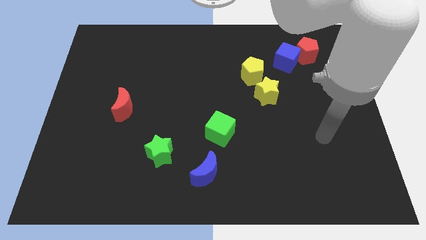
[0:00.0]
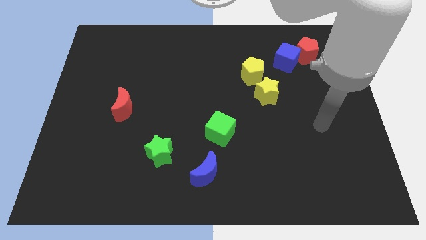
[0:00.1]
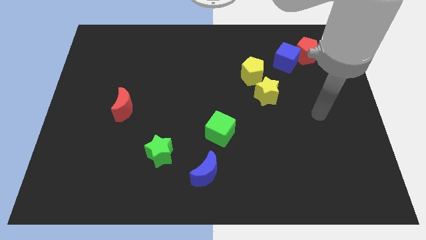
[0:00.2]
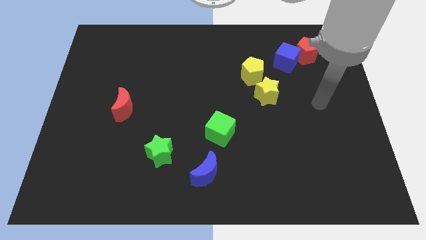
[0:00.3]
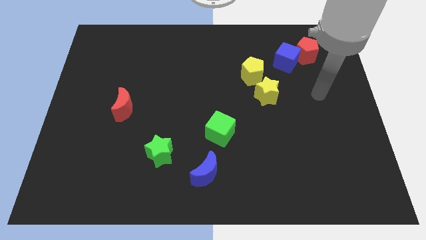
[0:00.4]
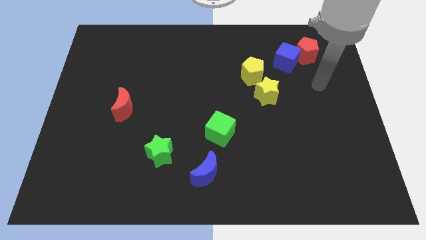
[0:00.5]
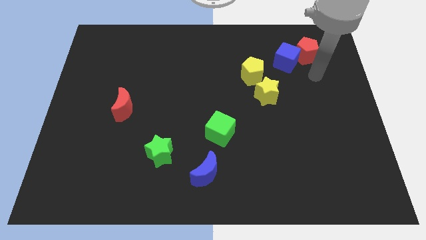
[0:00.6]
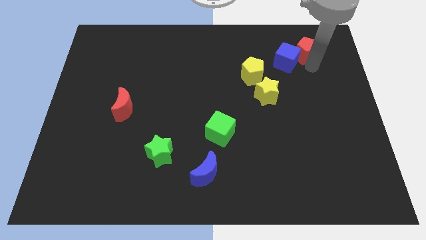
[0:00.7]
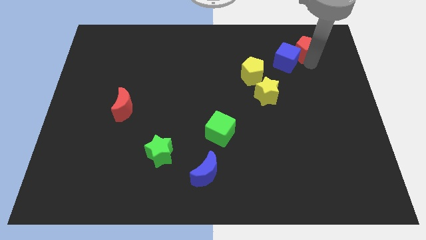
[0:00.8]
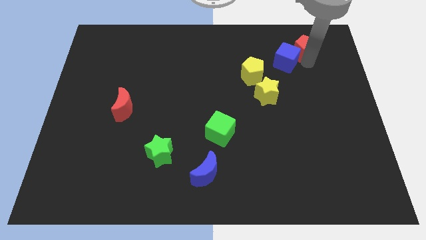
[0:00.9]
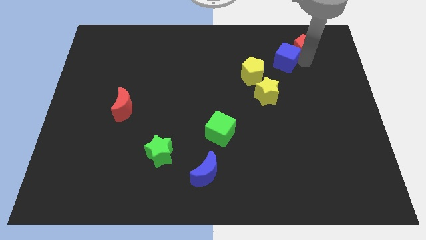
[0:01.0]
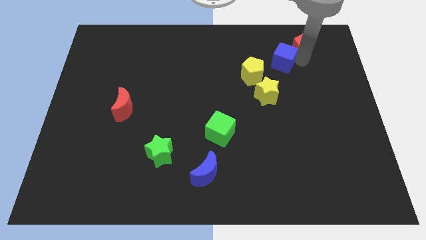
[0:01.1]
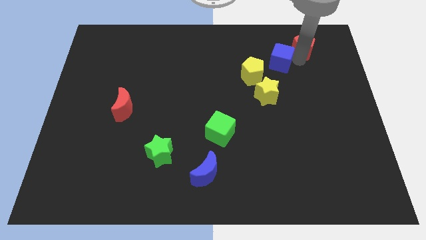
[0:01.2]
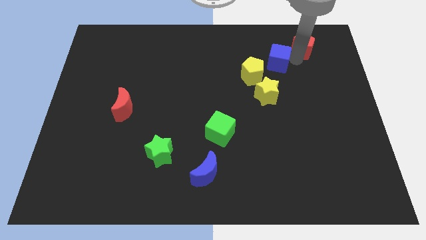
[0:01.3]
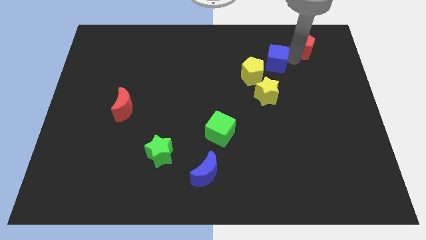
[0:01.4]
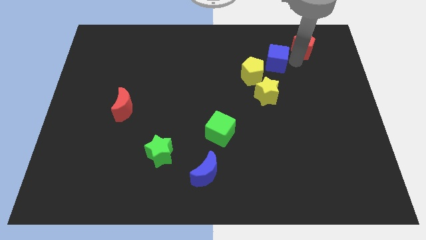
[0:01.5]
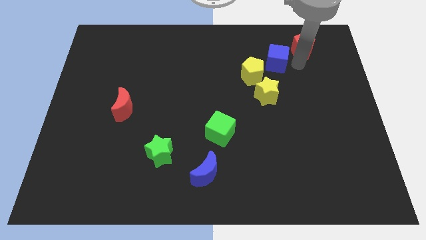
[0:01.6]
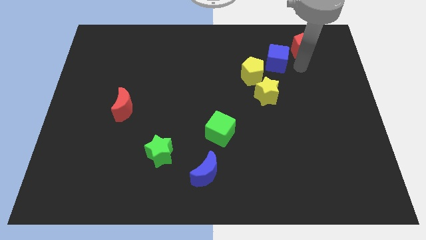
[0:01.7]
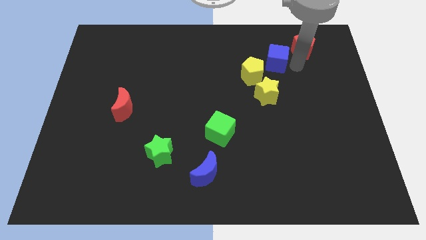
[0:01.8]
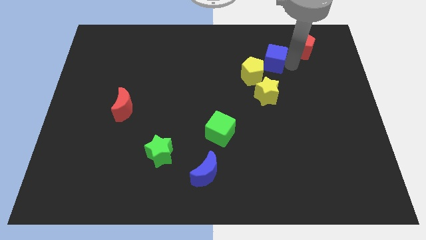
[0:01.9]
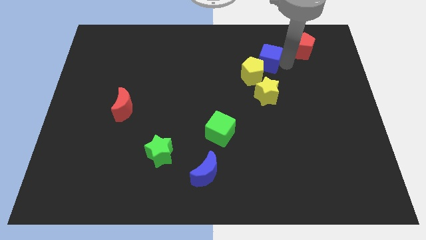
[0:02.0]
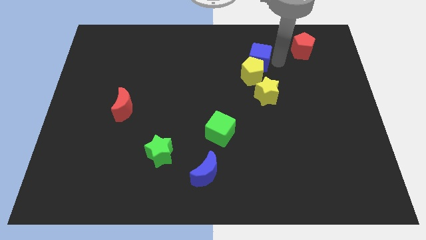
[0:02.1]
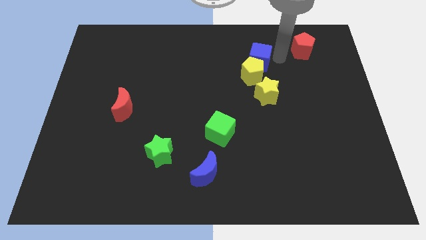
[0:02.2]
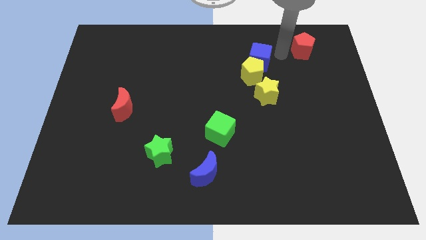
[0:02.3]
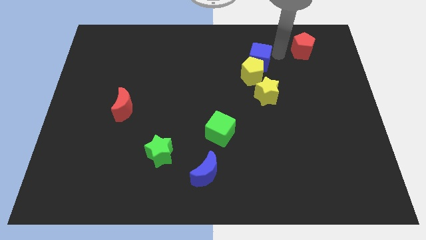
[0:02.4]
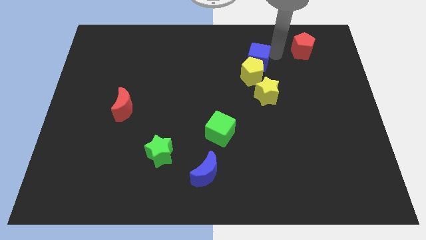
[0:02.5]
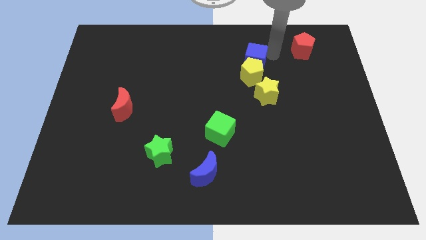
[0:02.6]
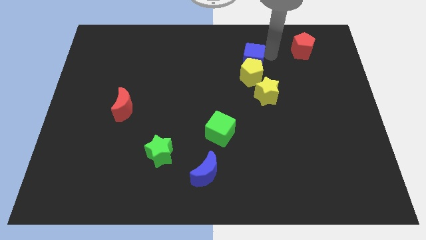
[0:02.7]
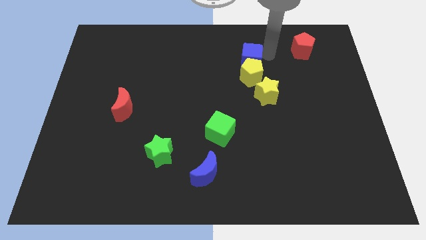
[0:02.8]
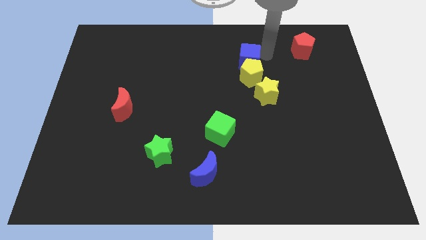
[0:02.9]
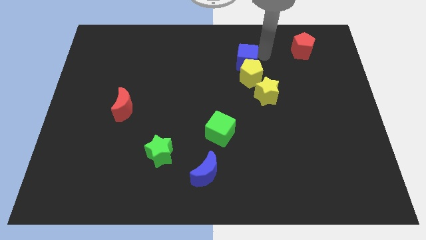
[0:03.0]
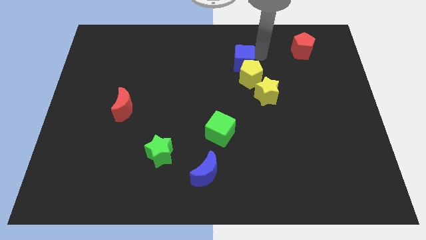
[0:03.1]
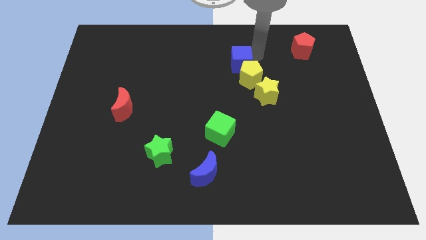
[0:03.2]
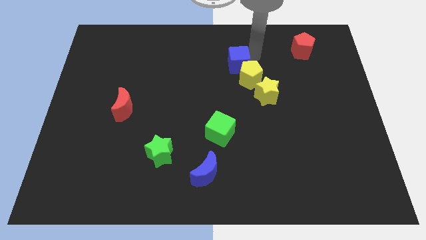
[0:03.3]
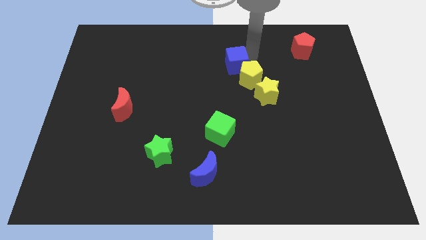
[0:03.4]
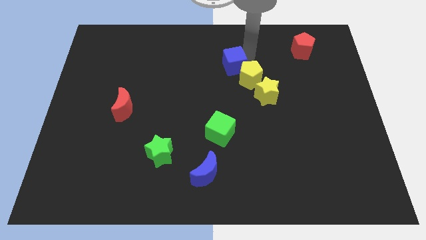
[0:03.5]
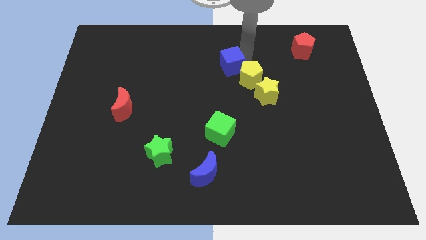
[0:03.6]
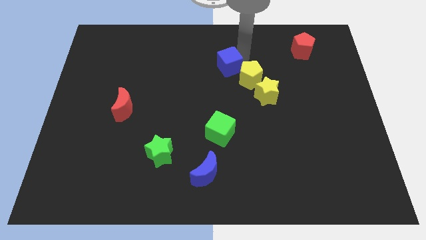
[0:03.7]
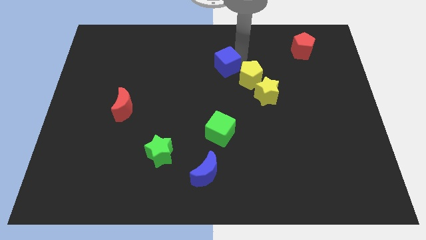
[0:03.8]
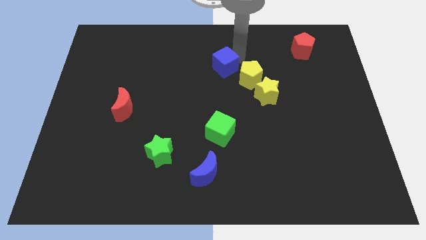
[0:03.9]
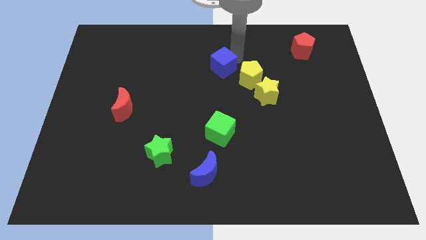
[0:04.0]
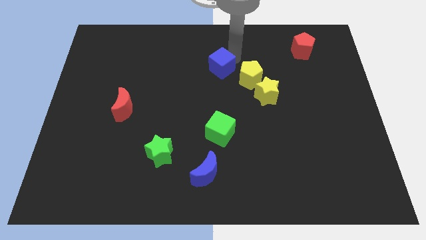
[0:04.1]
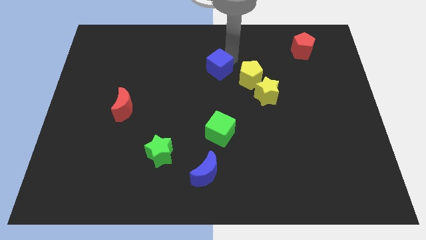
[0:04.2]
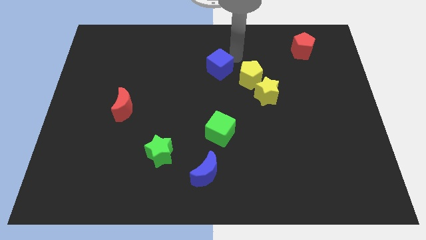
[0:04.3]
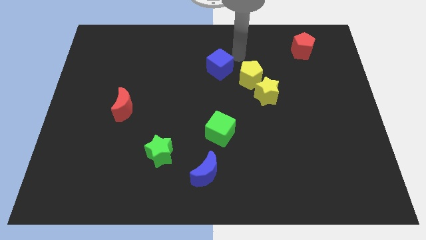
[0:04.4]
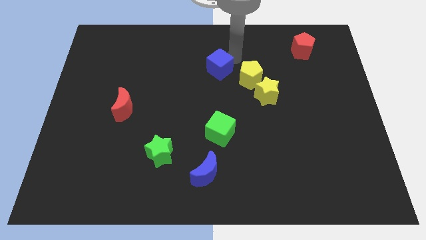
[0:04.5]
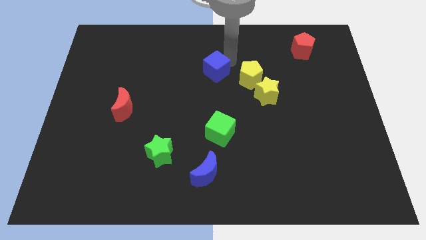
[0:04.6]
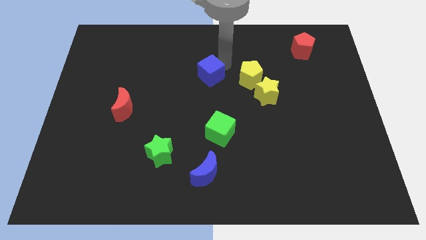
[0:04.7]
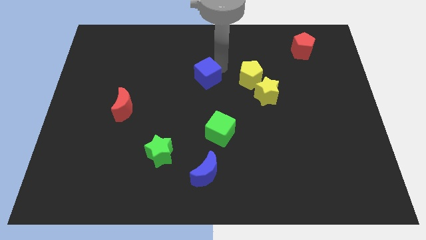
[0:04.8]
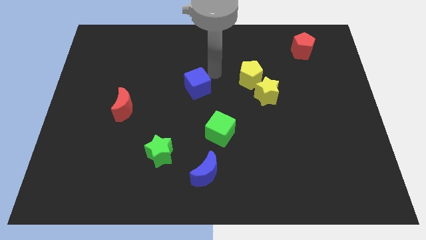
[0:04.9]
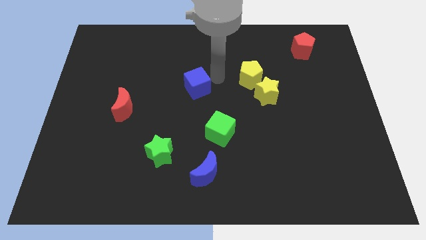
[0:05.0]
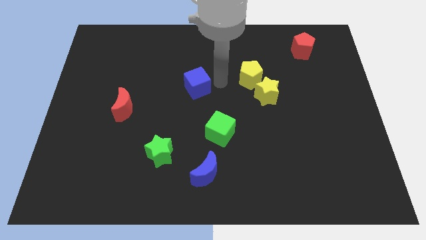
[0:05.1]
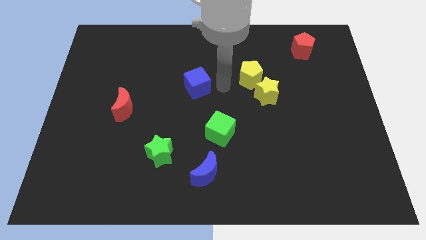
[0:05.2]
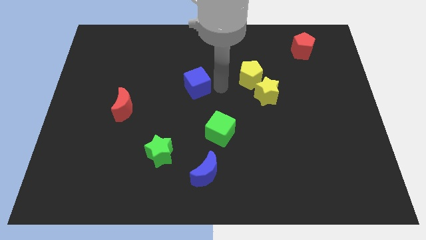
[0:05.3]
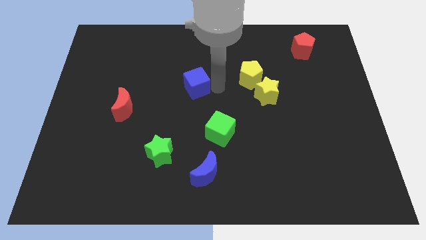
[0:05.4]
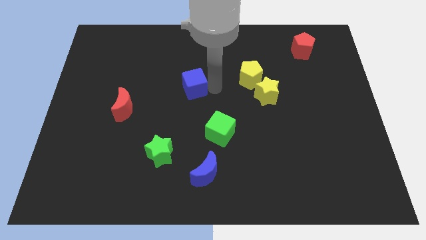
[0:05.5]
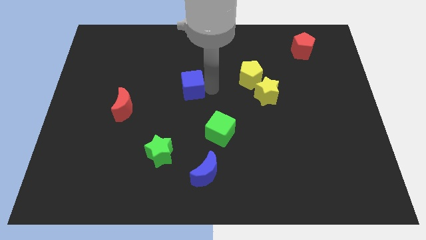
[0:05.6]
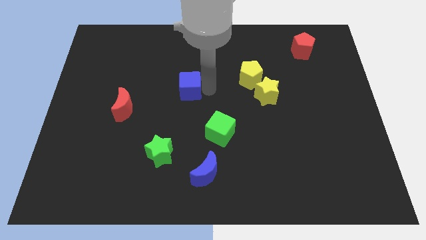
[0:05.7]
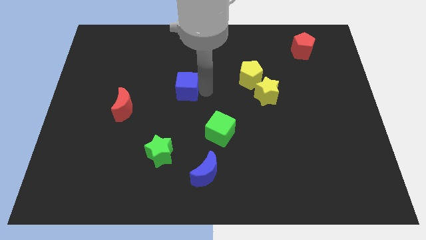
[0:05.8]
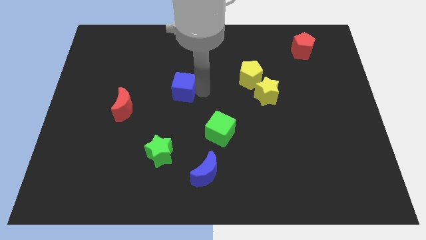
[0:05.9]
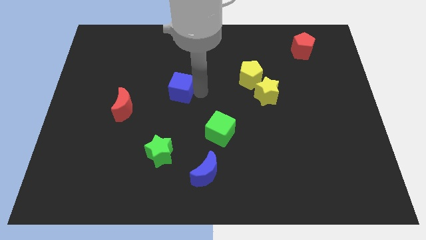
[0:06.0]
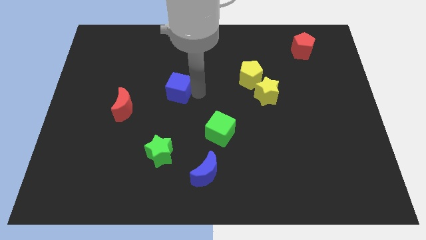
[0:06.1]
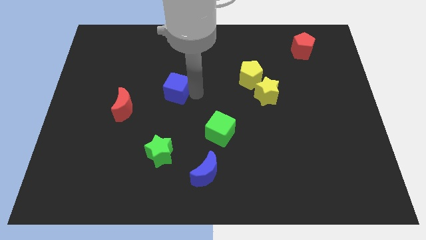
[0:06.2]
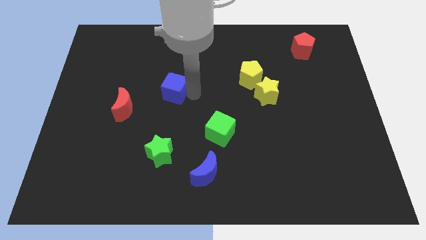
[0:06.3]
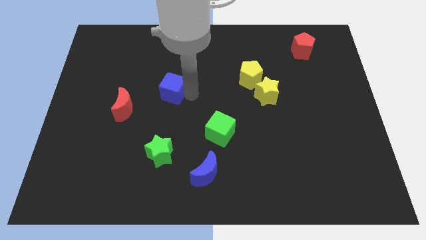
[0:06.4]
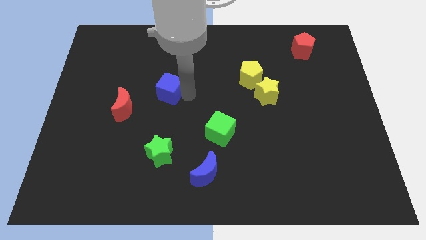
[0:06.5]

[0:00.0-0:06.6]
move the blue cube to the top right side of the red moon

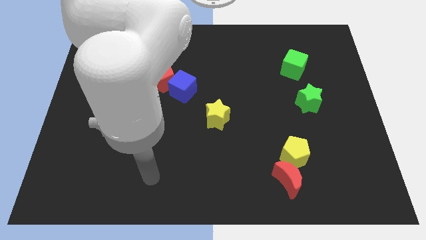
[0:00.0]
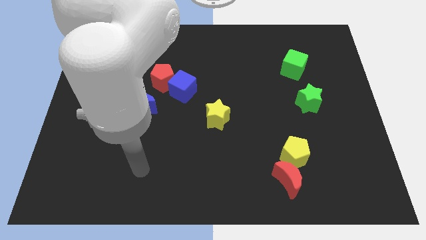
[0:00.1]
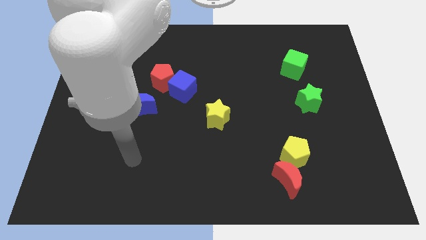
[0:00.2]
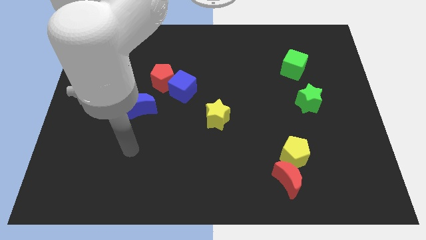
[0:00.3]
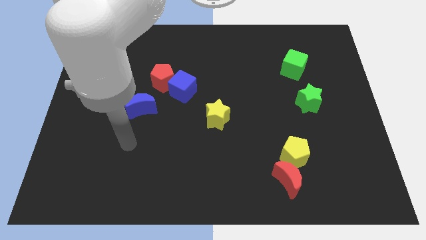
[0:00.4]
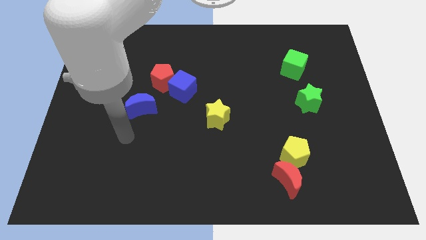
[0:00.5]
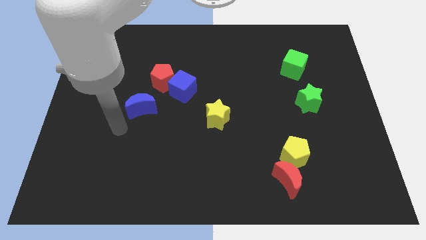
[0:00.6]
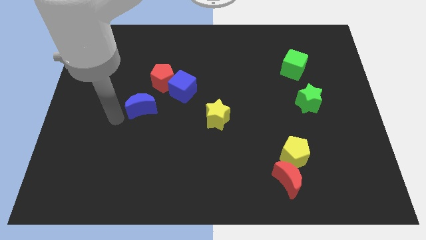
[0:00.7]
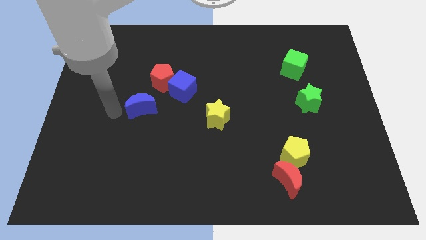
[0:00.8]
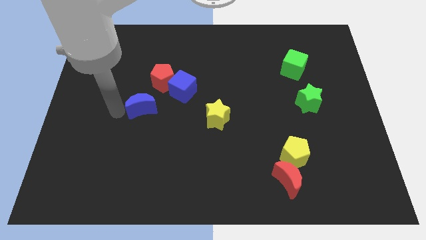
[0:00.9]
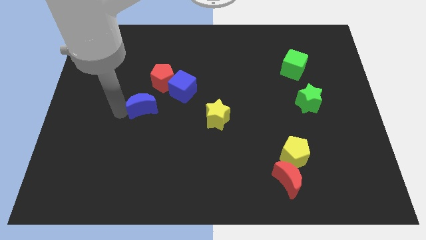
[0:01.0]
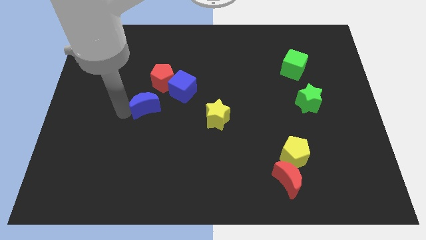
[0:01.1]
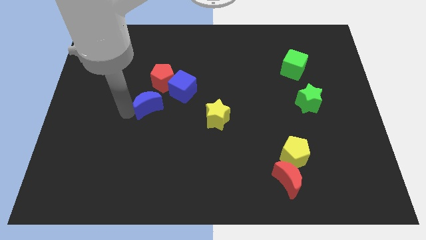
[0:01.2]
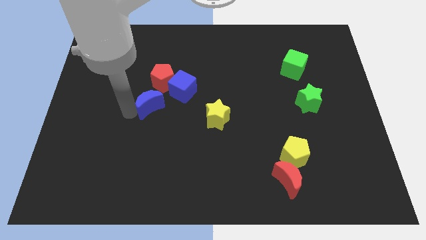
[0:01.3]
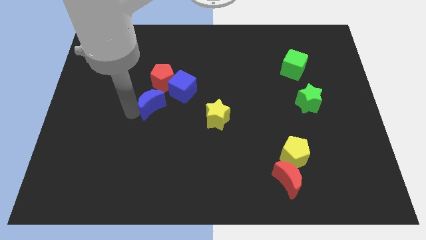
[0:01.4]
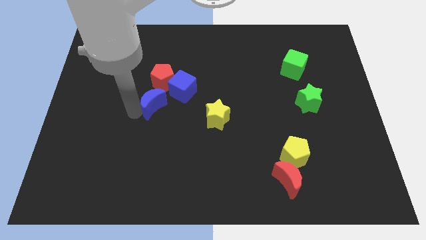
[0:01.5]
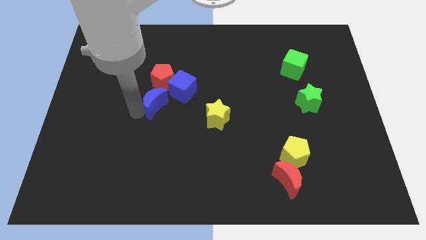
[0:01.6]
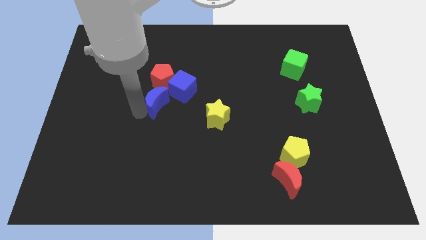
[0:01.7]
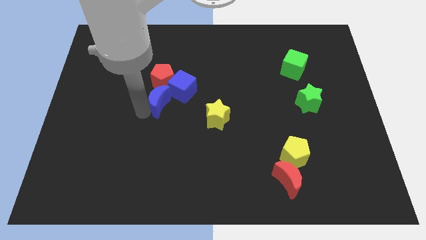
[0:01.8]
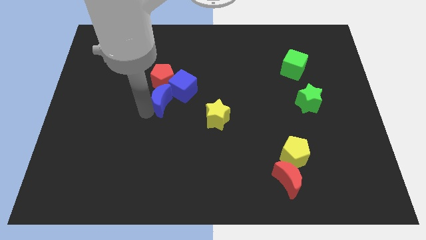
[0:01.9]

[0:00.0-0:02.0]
slide the blue moon to the bottom right of the red pentagon
